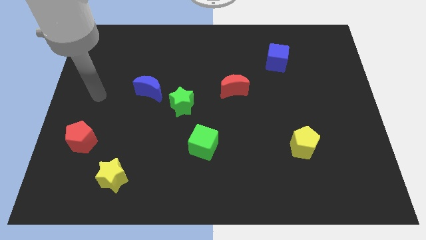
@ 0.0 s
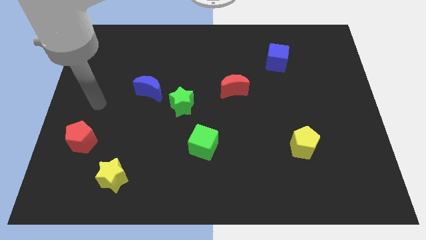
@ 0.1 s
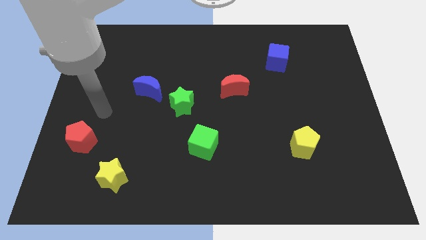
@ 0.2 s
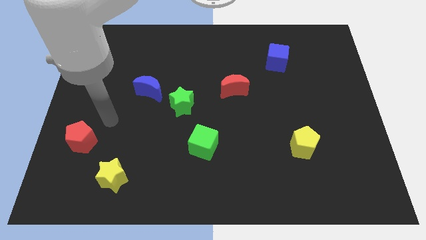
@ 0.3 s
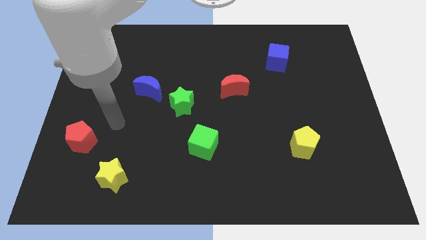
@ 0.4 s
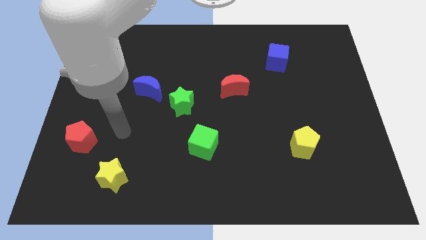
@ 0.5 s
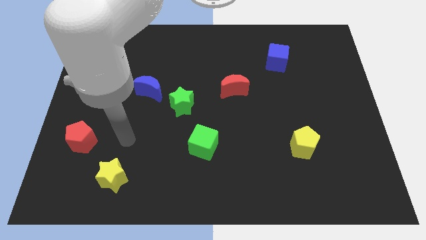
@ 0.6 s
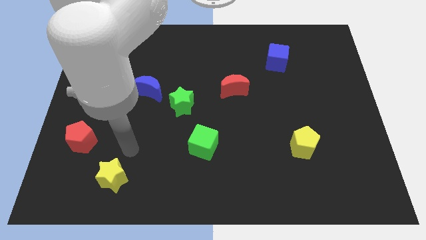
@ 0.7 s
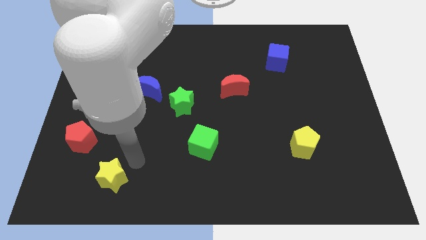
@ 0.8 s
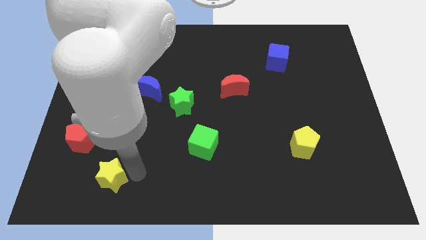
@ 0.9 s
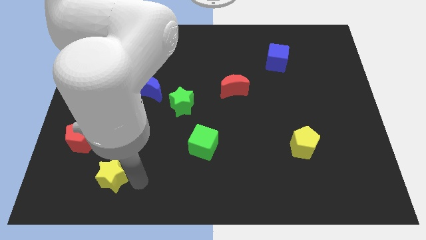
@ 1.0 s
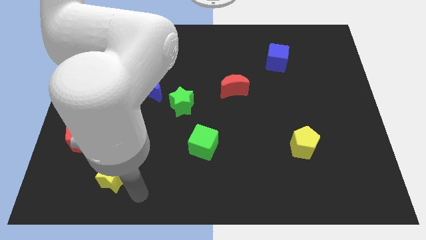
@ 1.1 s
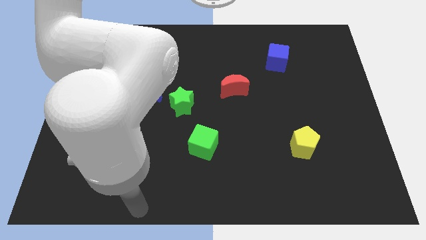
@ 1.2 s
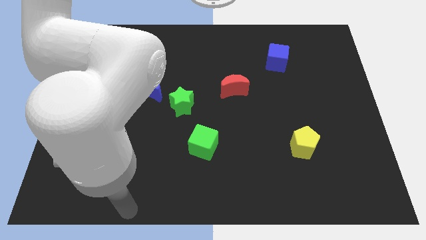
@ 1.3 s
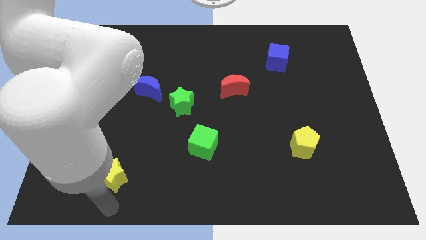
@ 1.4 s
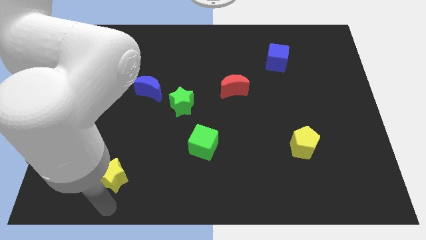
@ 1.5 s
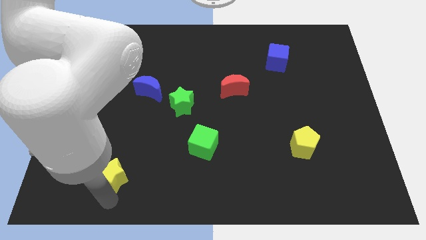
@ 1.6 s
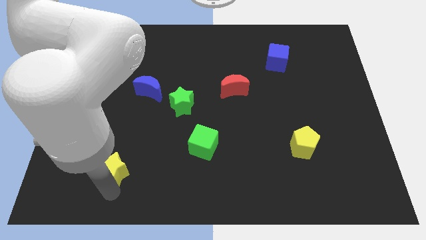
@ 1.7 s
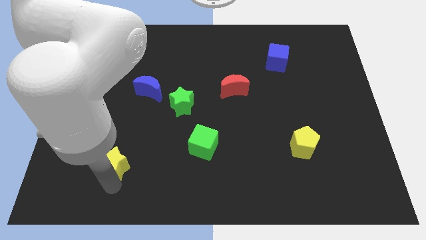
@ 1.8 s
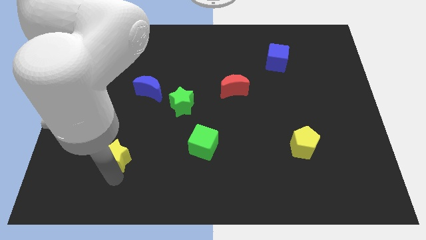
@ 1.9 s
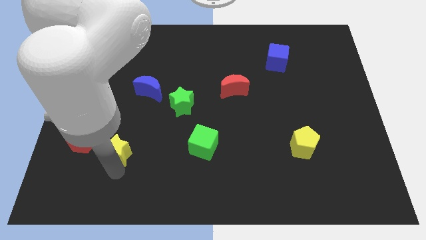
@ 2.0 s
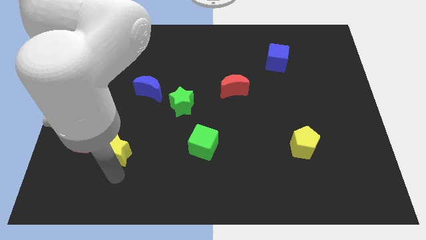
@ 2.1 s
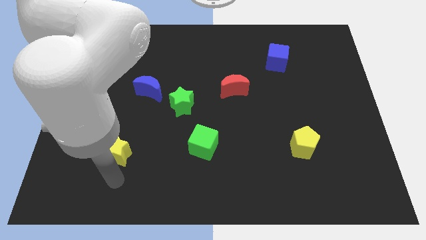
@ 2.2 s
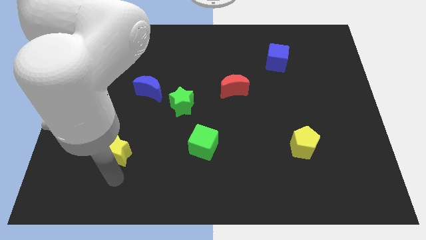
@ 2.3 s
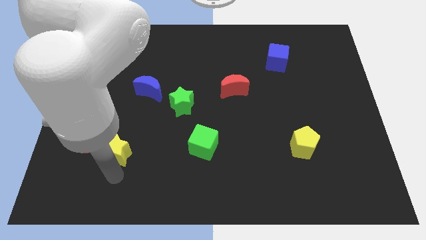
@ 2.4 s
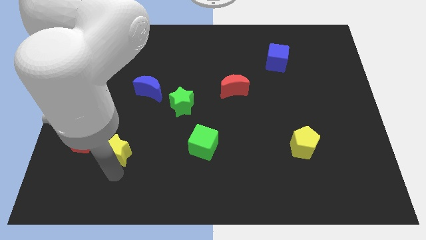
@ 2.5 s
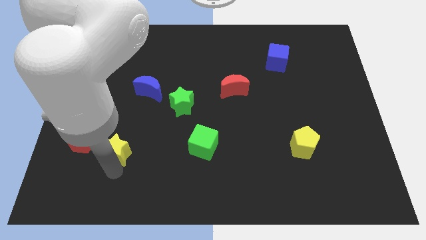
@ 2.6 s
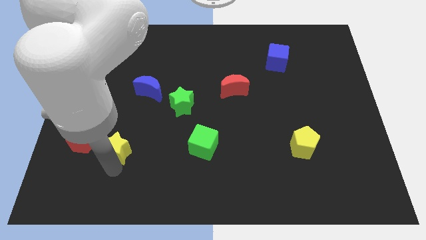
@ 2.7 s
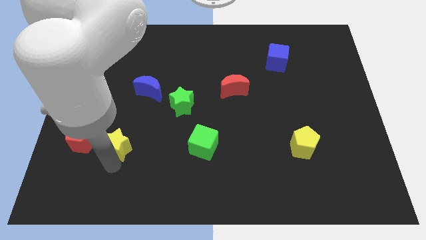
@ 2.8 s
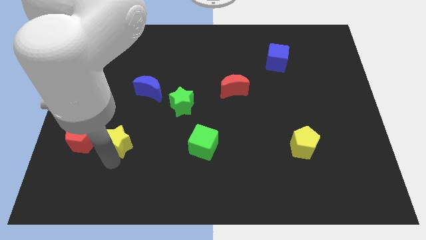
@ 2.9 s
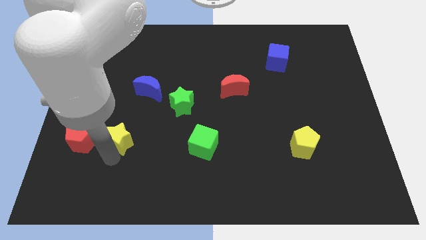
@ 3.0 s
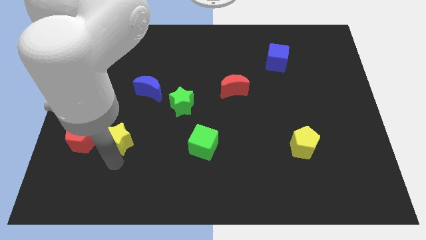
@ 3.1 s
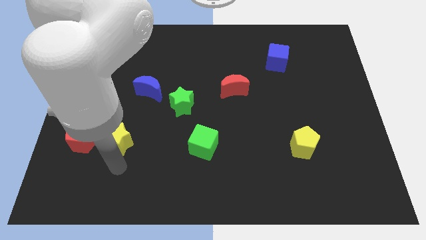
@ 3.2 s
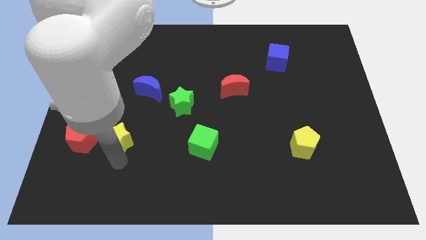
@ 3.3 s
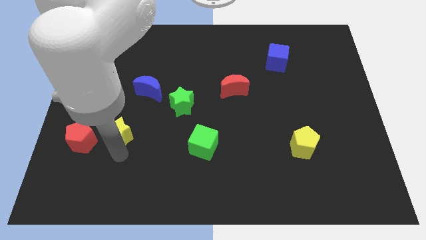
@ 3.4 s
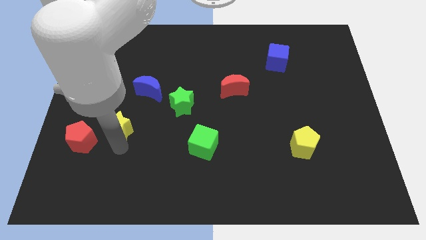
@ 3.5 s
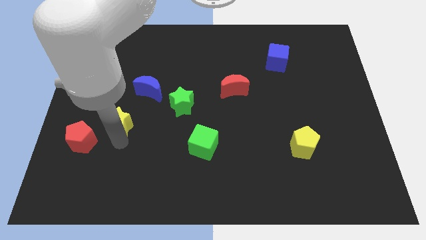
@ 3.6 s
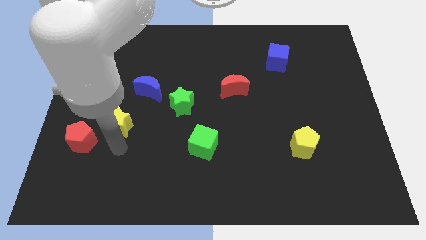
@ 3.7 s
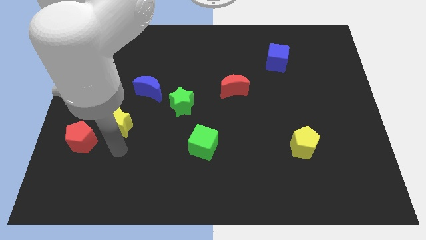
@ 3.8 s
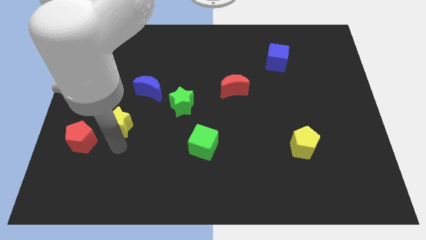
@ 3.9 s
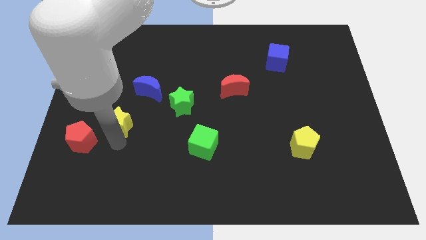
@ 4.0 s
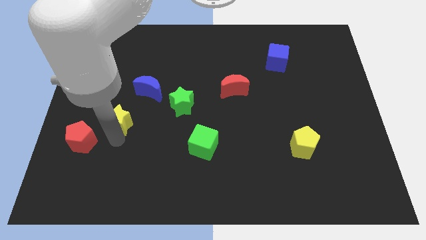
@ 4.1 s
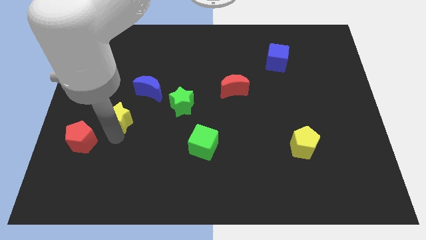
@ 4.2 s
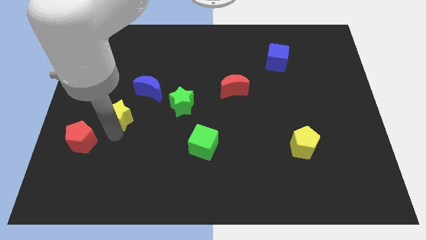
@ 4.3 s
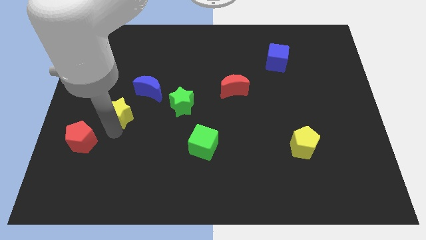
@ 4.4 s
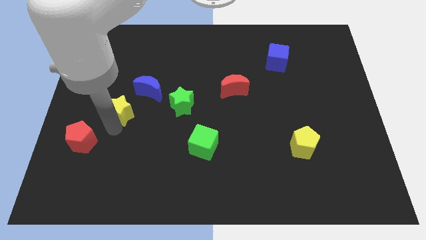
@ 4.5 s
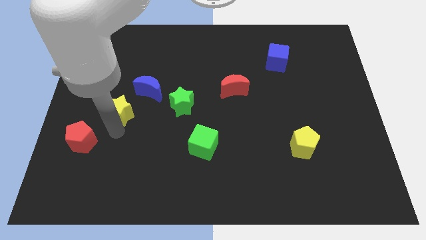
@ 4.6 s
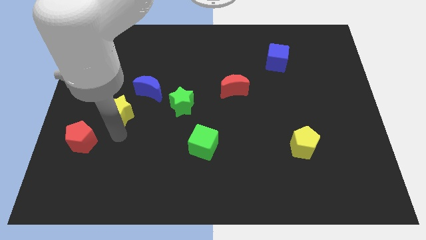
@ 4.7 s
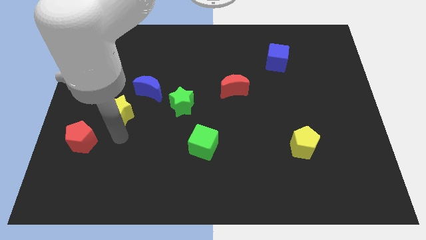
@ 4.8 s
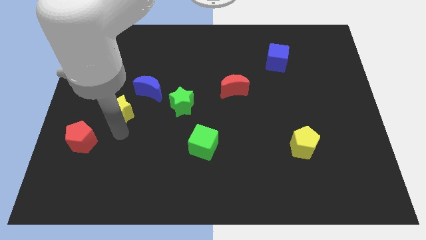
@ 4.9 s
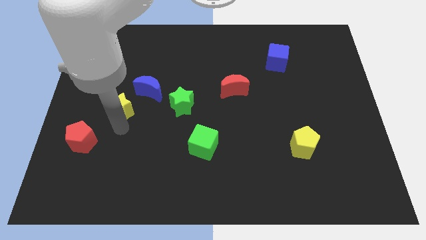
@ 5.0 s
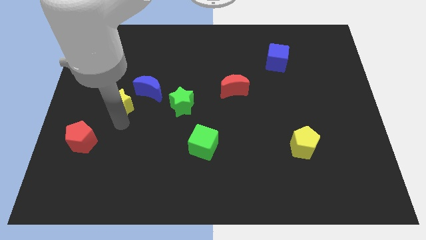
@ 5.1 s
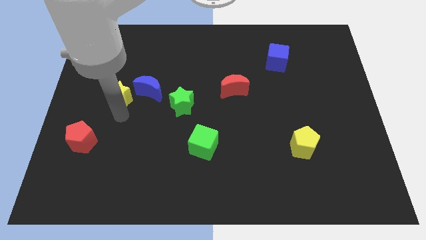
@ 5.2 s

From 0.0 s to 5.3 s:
push the yellow star up

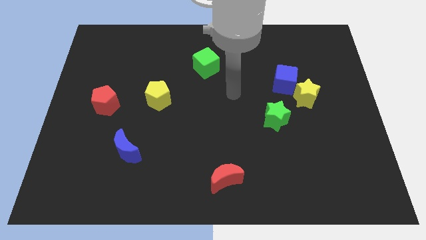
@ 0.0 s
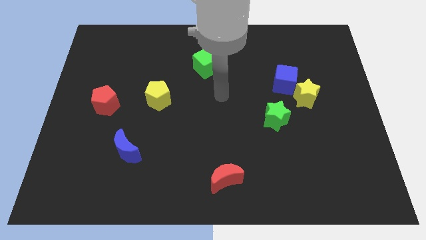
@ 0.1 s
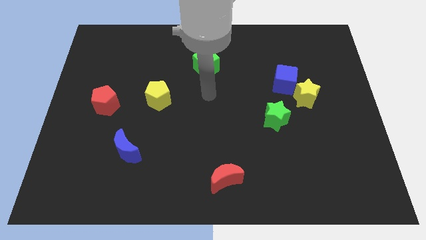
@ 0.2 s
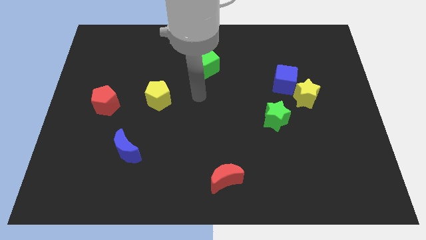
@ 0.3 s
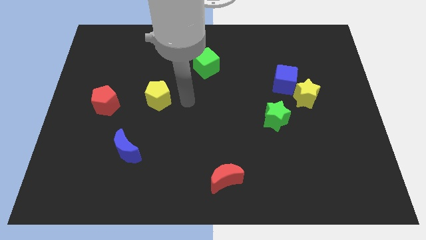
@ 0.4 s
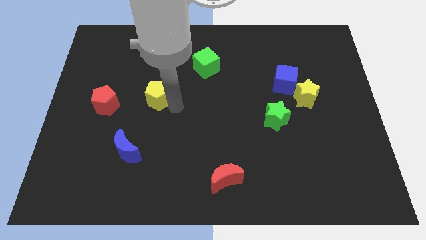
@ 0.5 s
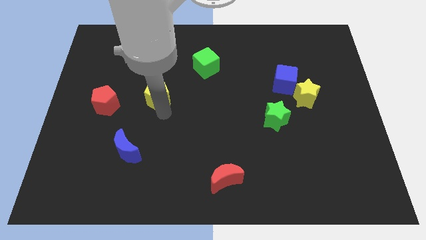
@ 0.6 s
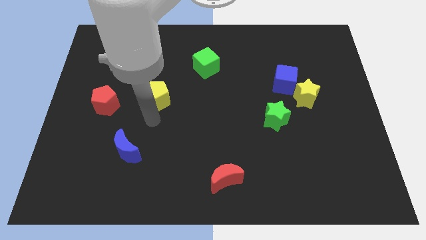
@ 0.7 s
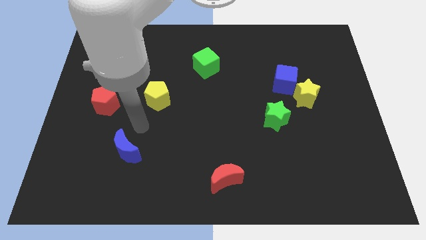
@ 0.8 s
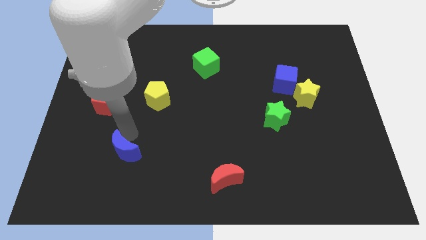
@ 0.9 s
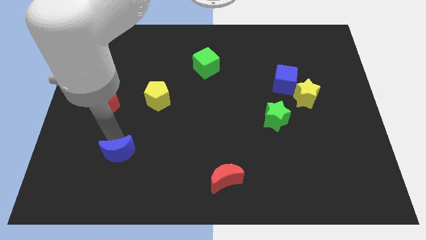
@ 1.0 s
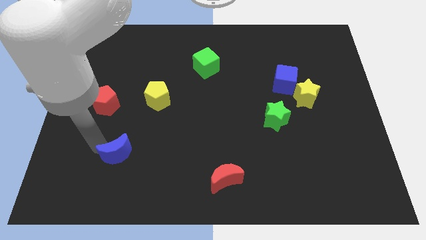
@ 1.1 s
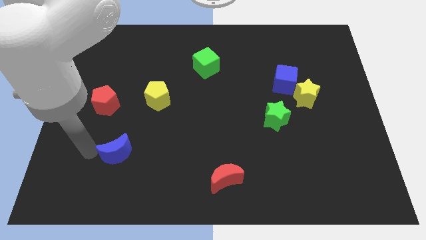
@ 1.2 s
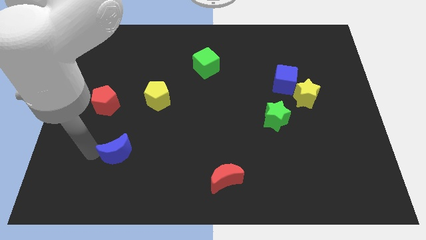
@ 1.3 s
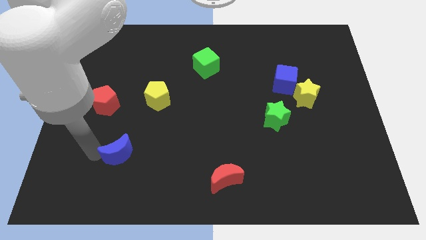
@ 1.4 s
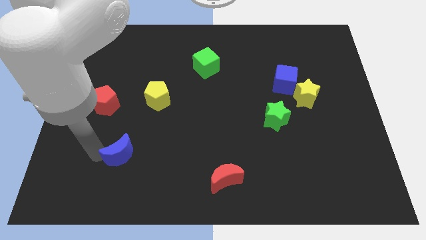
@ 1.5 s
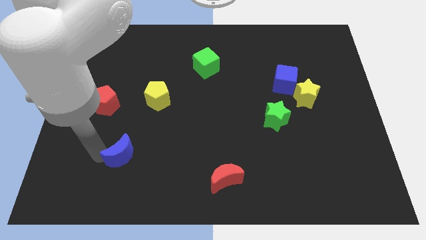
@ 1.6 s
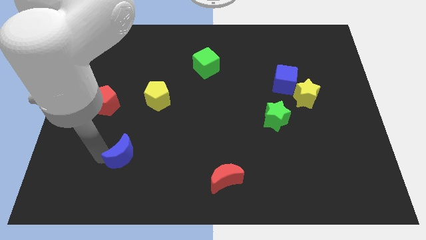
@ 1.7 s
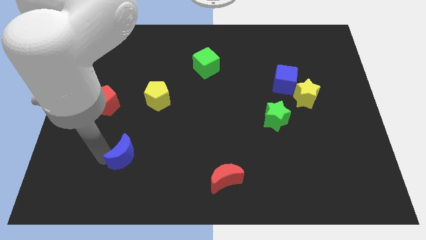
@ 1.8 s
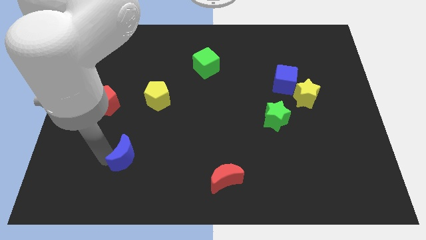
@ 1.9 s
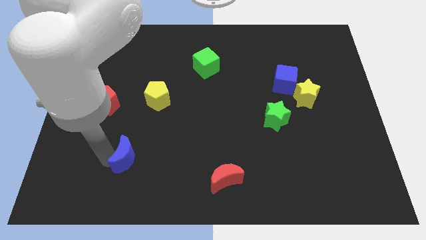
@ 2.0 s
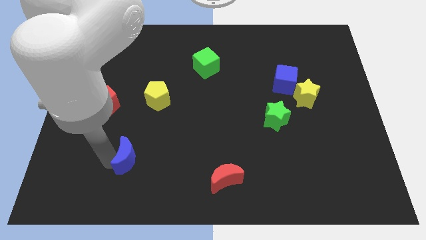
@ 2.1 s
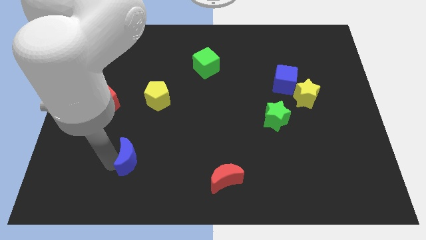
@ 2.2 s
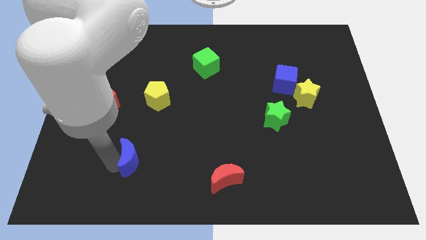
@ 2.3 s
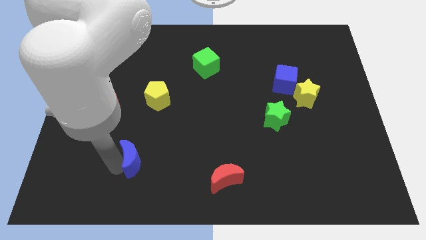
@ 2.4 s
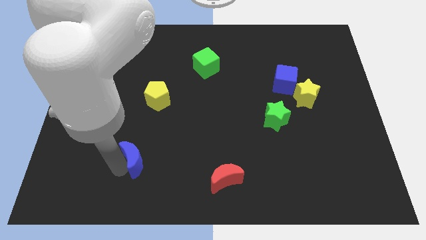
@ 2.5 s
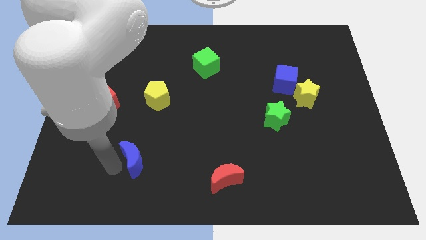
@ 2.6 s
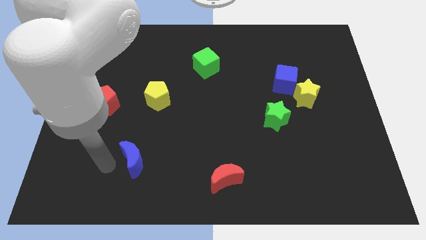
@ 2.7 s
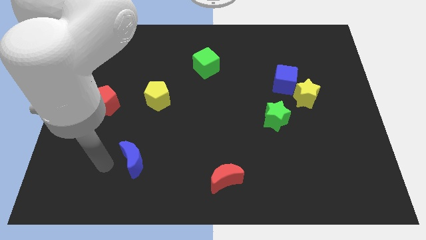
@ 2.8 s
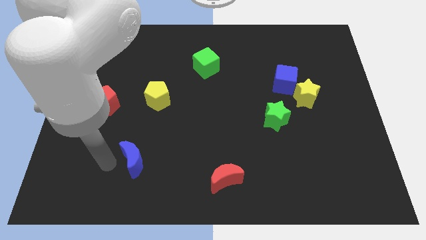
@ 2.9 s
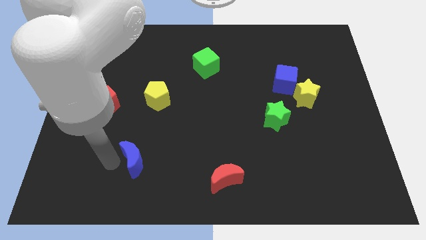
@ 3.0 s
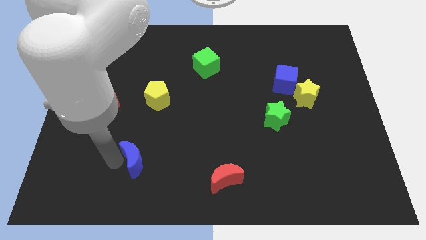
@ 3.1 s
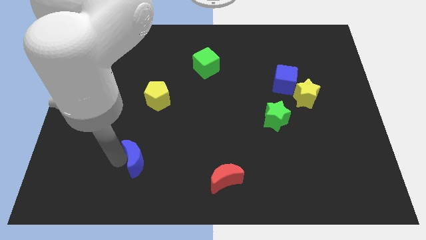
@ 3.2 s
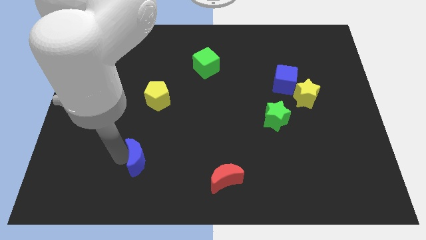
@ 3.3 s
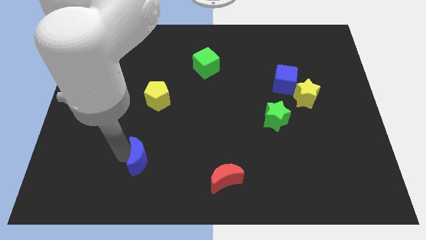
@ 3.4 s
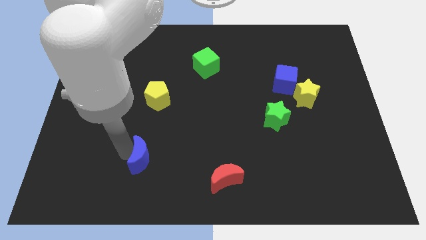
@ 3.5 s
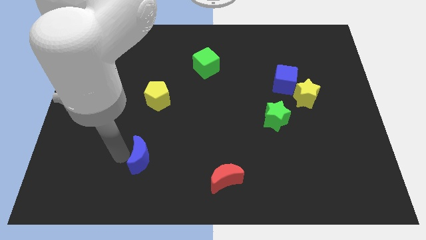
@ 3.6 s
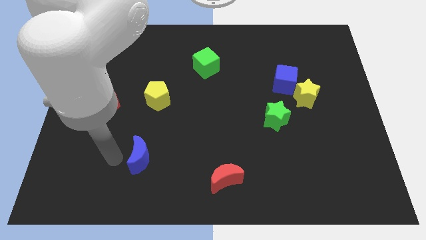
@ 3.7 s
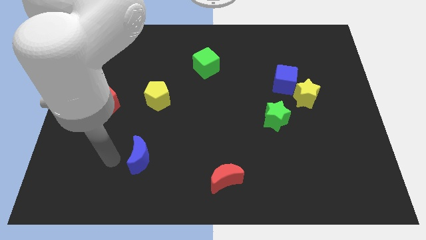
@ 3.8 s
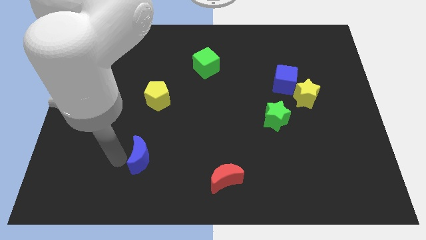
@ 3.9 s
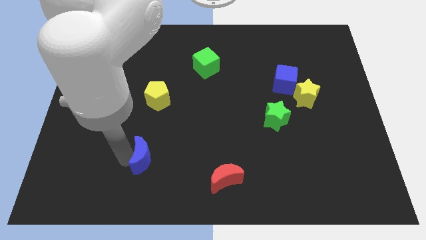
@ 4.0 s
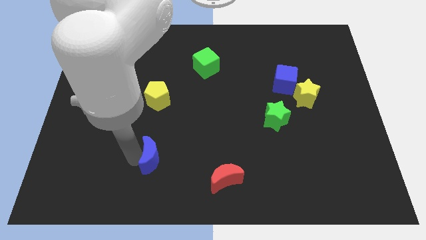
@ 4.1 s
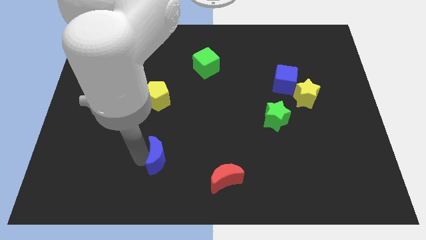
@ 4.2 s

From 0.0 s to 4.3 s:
slide the blue moon to the right a little
